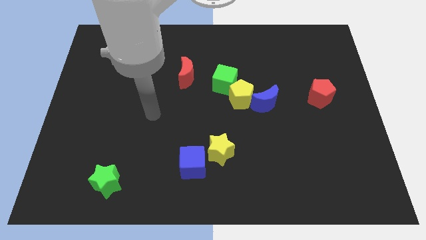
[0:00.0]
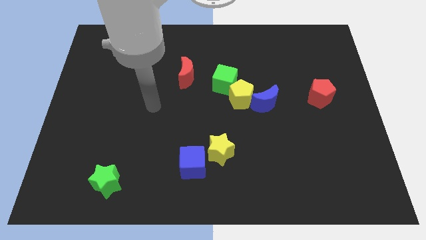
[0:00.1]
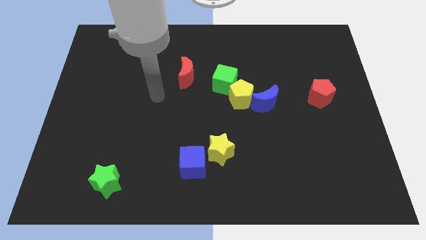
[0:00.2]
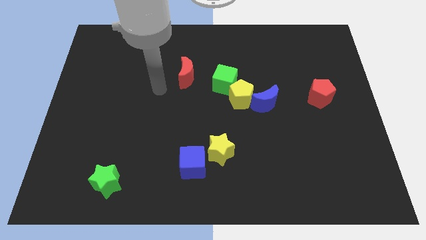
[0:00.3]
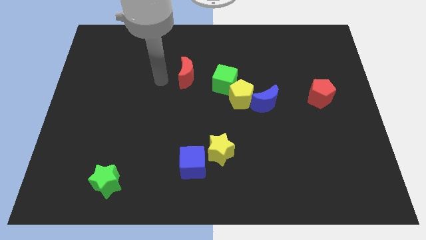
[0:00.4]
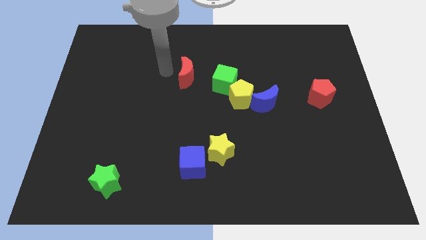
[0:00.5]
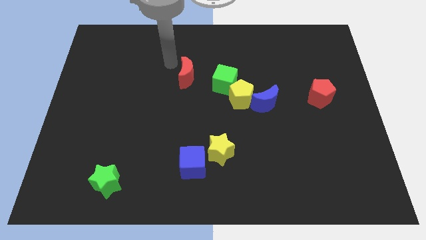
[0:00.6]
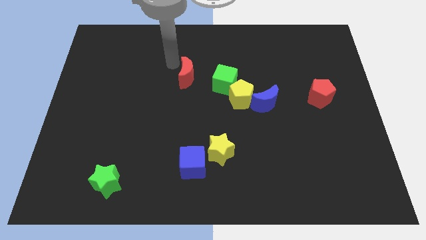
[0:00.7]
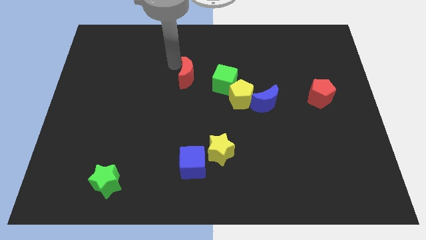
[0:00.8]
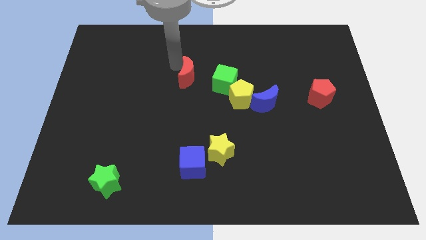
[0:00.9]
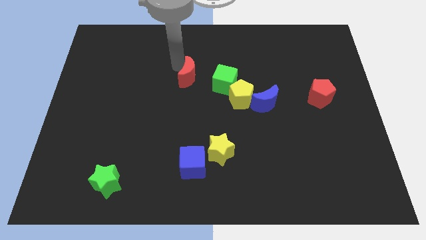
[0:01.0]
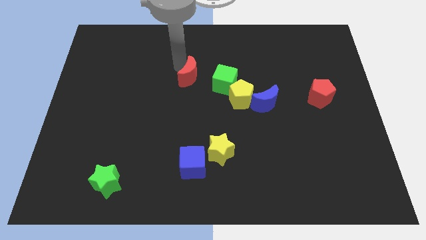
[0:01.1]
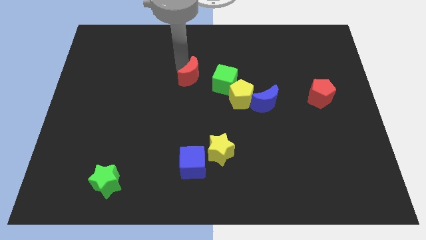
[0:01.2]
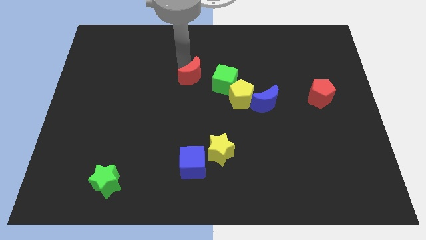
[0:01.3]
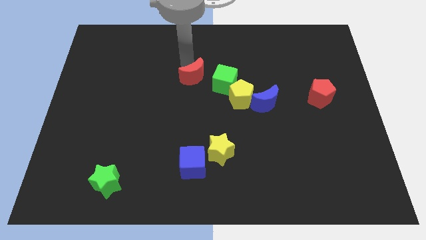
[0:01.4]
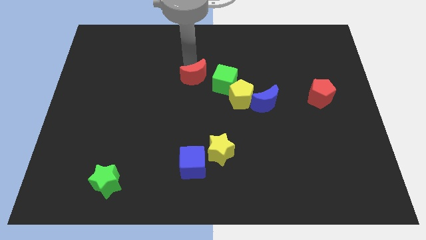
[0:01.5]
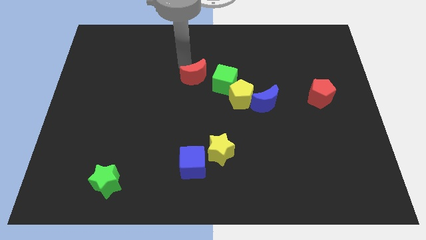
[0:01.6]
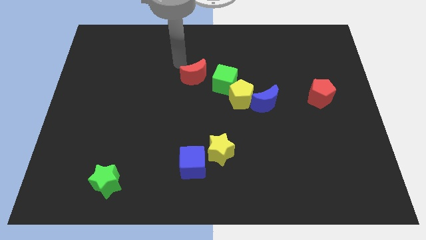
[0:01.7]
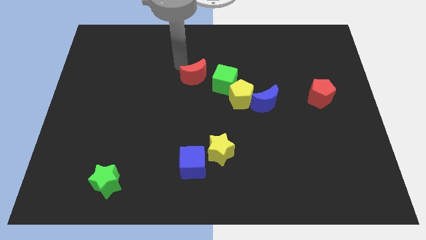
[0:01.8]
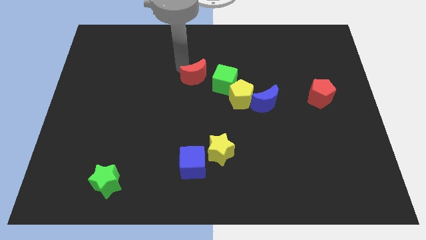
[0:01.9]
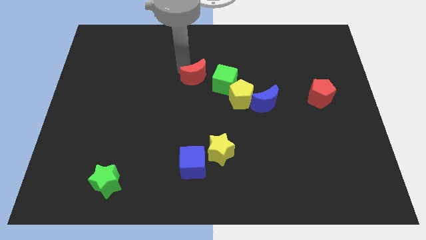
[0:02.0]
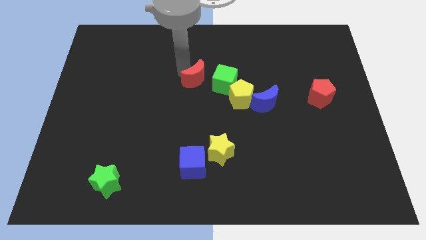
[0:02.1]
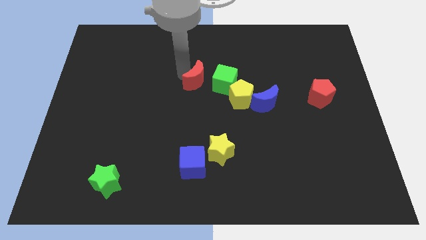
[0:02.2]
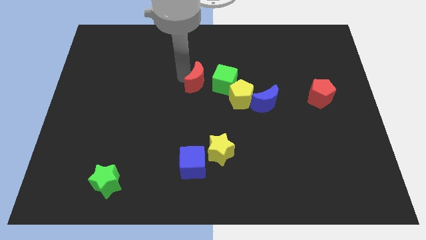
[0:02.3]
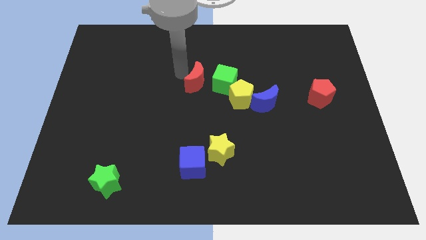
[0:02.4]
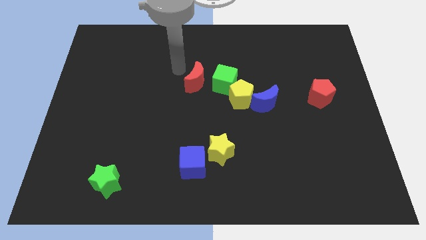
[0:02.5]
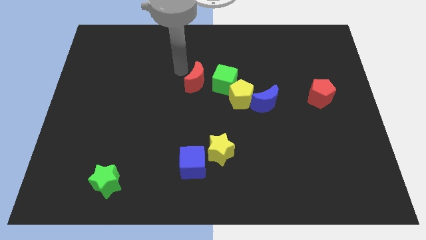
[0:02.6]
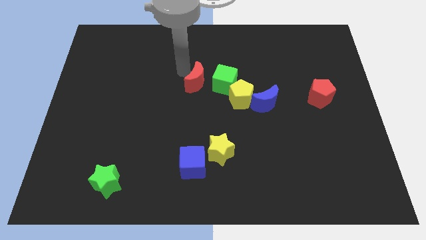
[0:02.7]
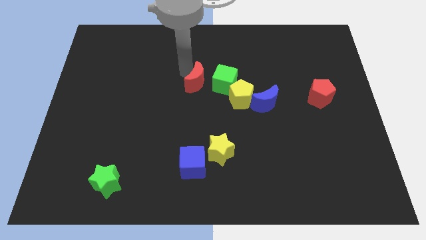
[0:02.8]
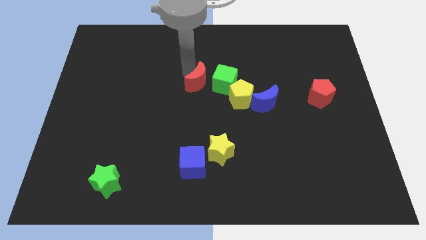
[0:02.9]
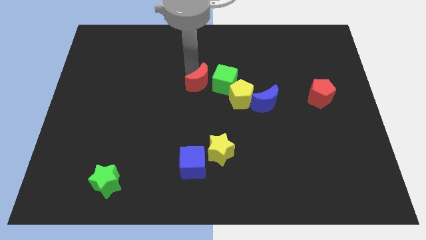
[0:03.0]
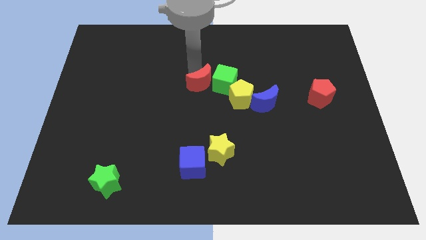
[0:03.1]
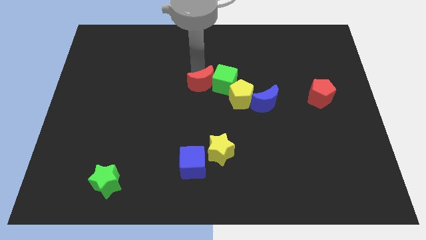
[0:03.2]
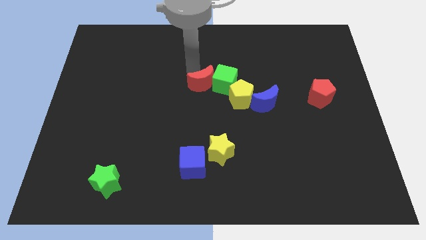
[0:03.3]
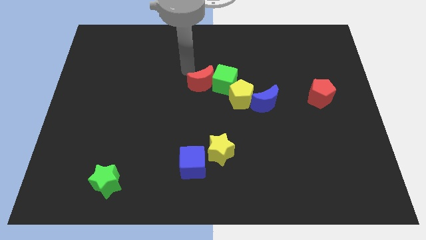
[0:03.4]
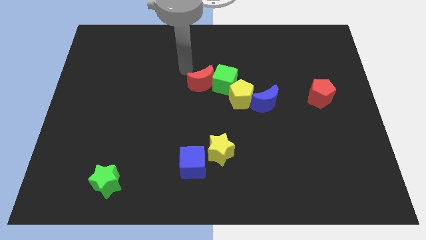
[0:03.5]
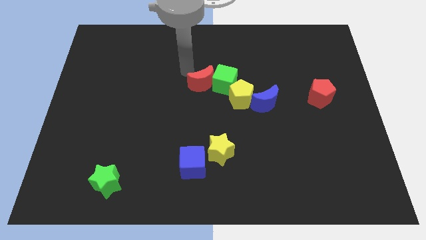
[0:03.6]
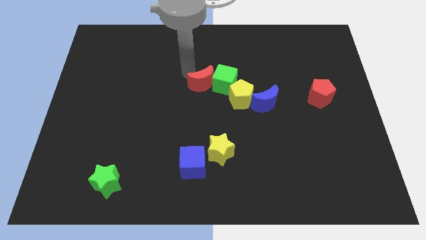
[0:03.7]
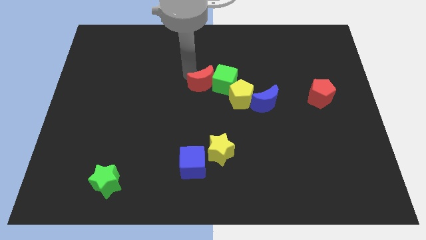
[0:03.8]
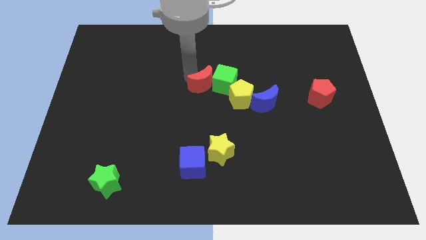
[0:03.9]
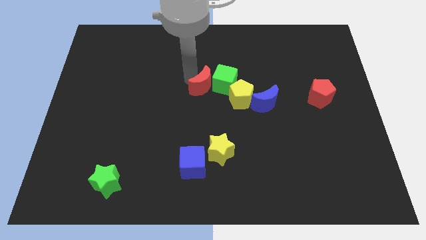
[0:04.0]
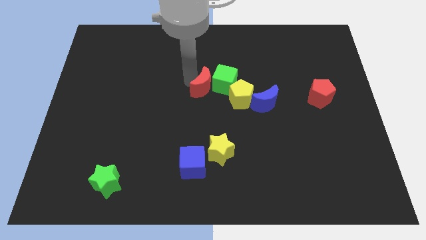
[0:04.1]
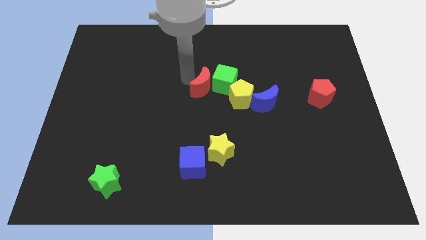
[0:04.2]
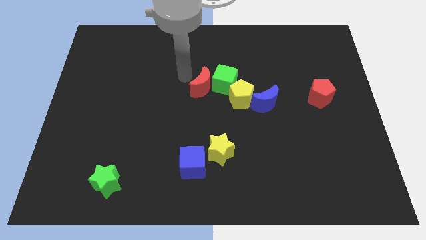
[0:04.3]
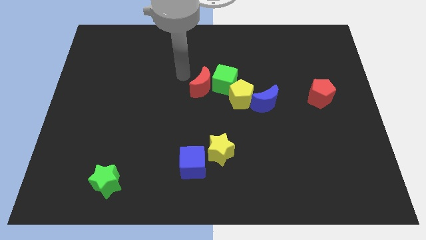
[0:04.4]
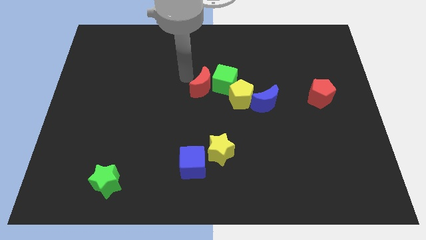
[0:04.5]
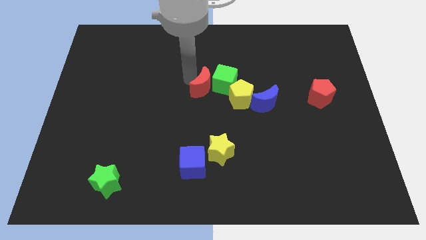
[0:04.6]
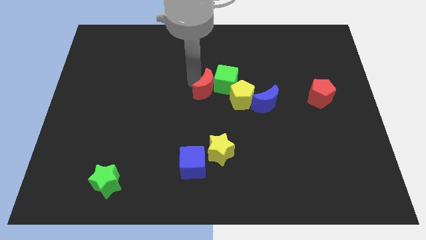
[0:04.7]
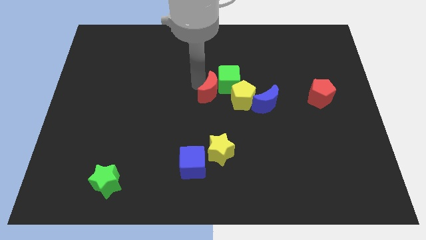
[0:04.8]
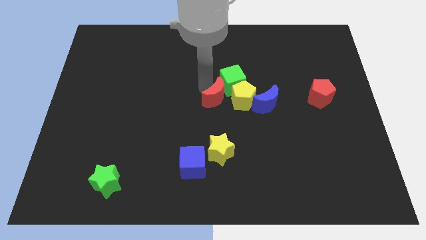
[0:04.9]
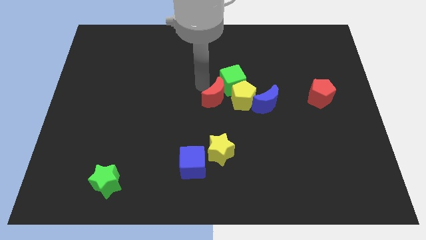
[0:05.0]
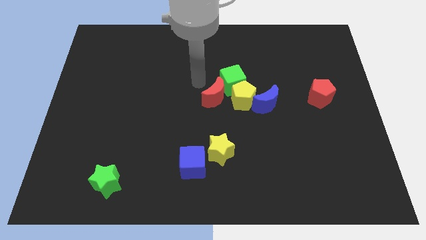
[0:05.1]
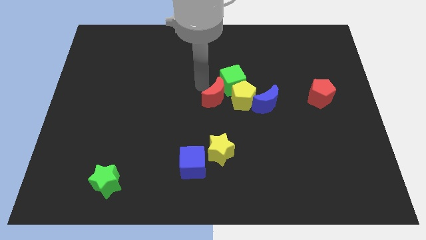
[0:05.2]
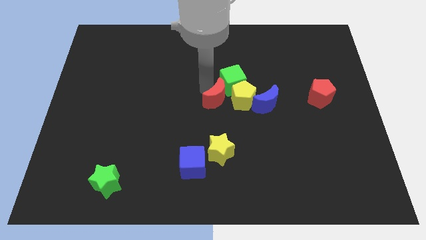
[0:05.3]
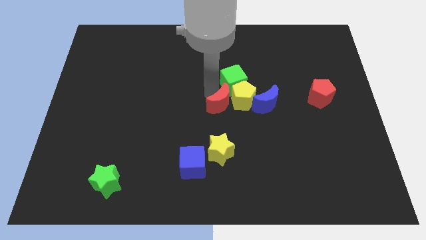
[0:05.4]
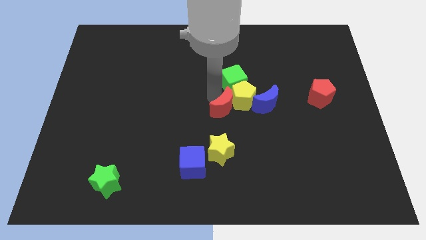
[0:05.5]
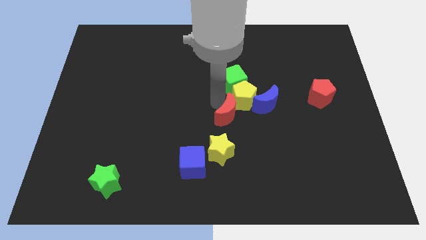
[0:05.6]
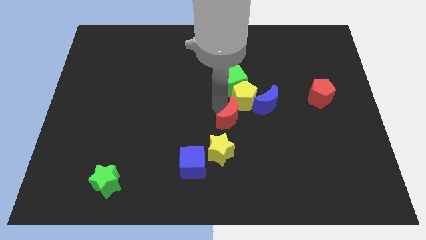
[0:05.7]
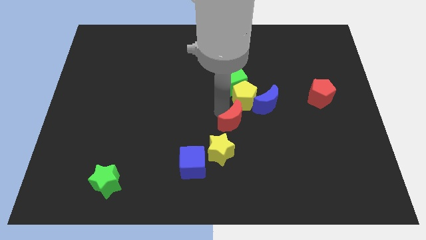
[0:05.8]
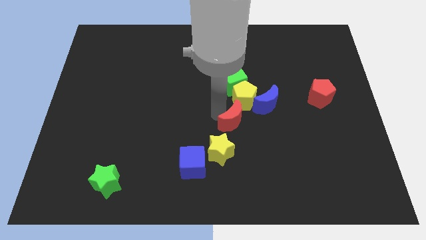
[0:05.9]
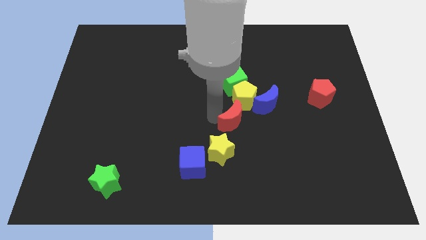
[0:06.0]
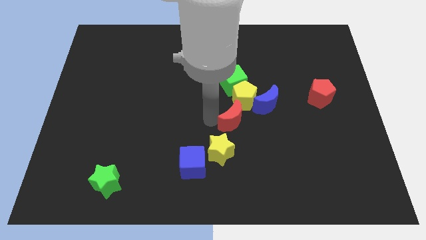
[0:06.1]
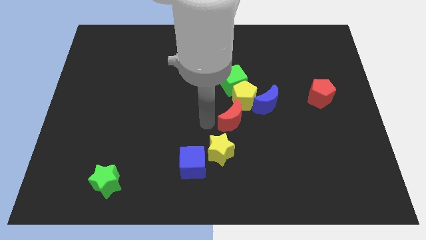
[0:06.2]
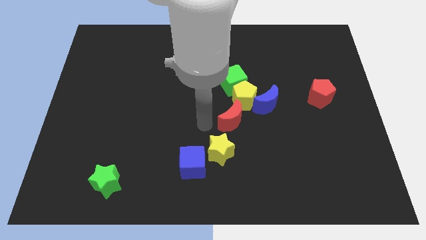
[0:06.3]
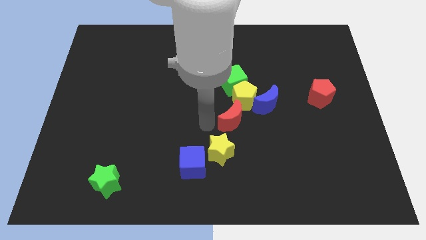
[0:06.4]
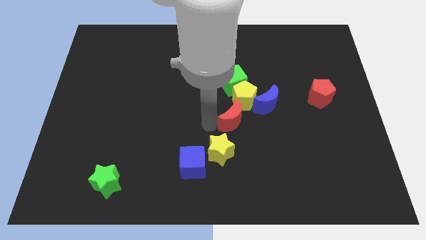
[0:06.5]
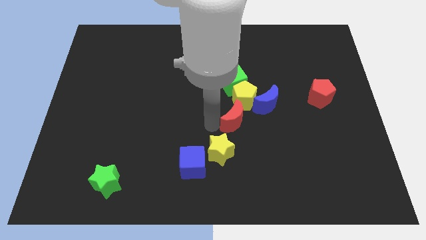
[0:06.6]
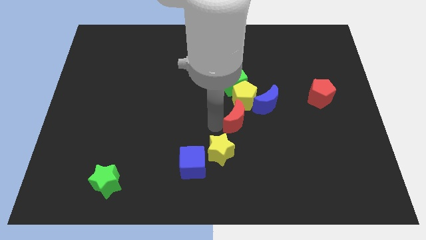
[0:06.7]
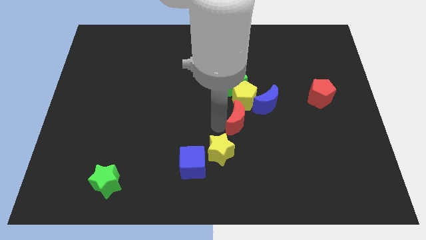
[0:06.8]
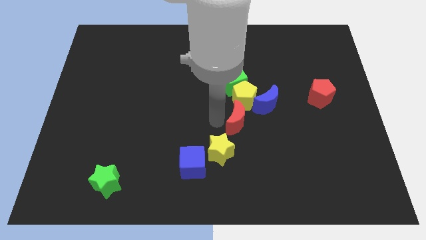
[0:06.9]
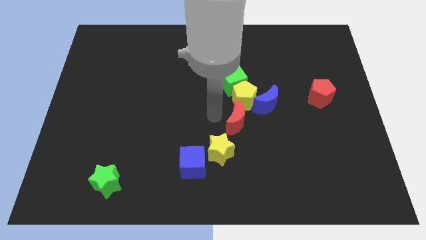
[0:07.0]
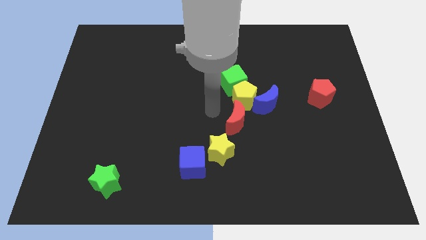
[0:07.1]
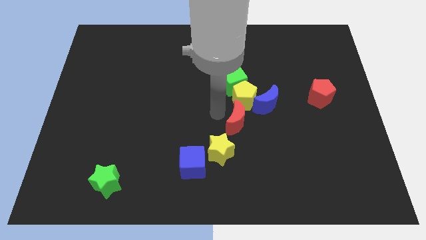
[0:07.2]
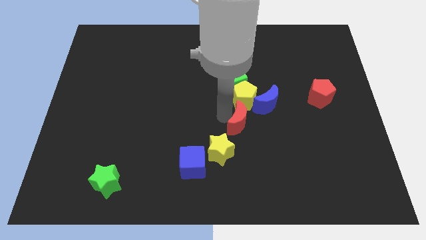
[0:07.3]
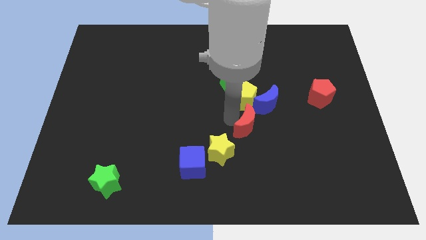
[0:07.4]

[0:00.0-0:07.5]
slide the red moon downwards and then to the right

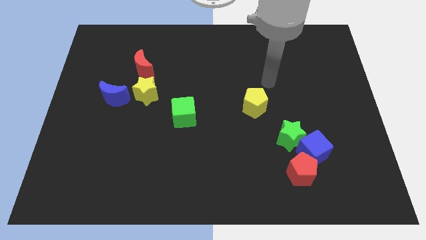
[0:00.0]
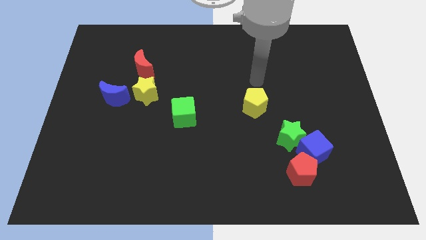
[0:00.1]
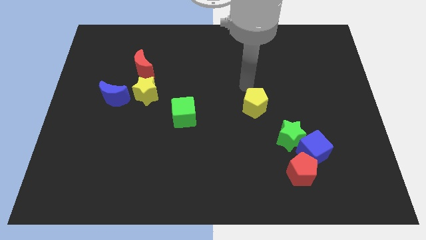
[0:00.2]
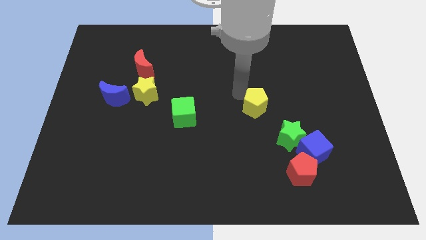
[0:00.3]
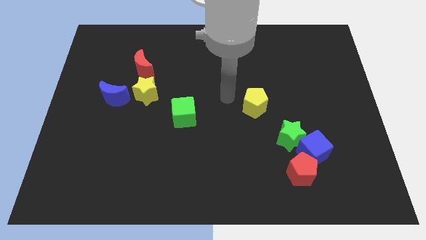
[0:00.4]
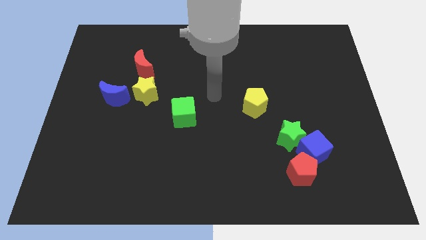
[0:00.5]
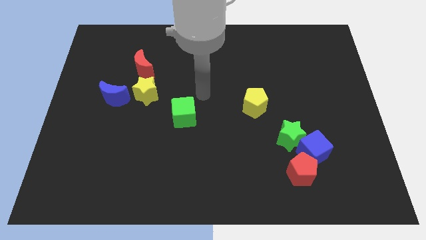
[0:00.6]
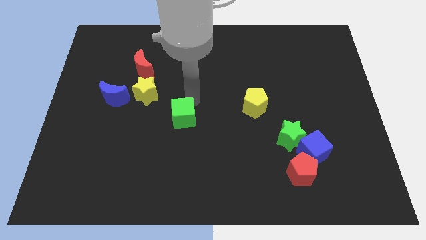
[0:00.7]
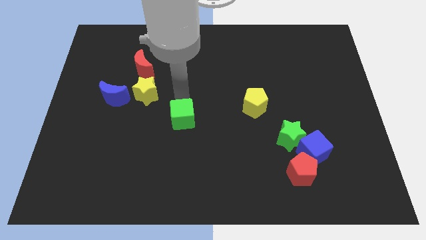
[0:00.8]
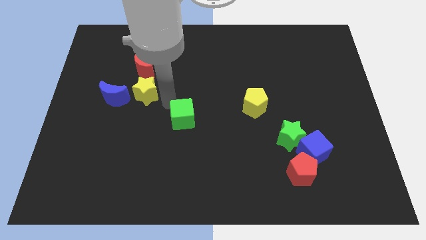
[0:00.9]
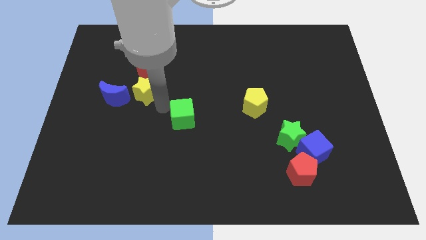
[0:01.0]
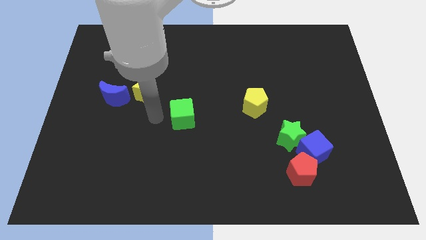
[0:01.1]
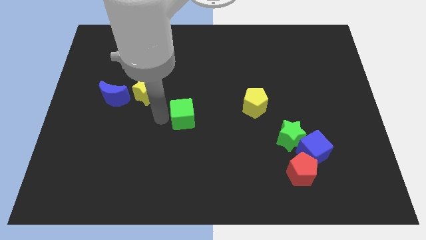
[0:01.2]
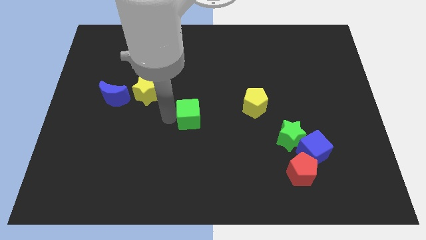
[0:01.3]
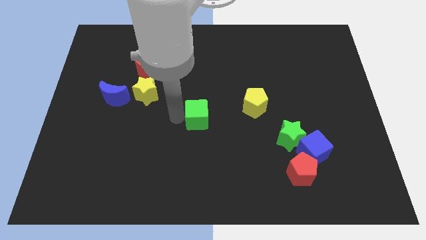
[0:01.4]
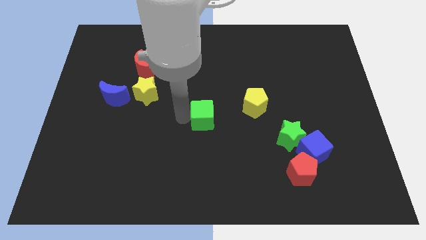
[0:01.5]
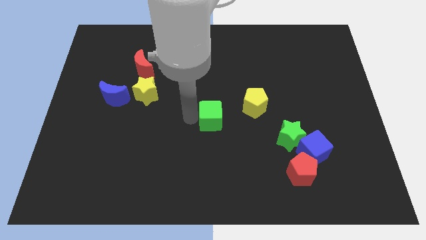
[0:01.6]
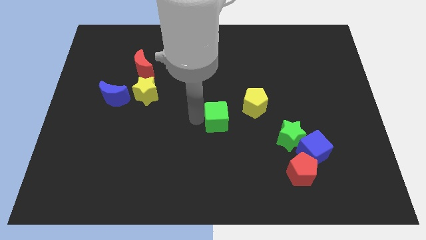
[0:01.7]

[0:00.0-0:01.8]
move the green cube right somewhat
